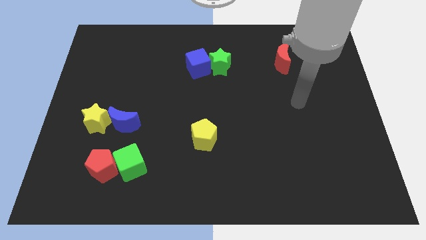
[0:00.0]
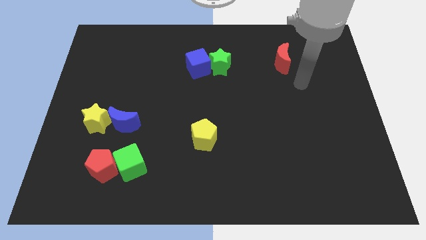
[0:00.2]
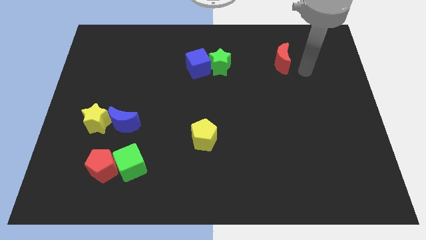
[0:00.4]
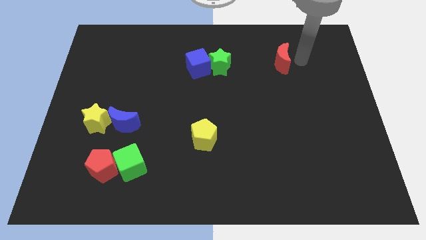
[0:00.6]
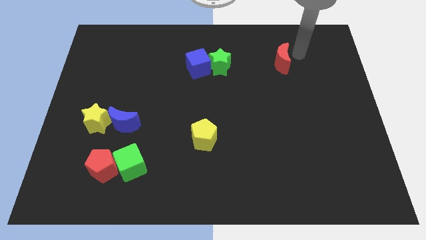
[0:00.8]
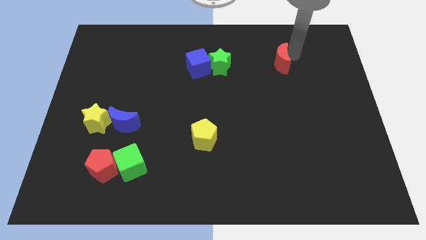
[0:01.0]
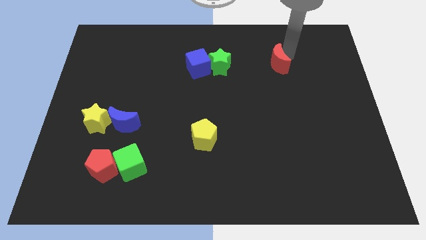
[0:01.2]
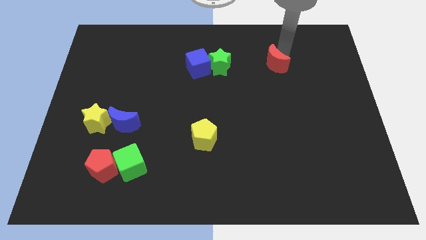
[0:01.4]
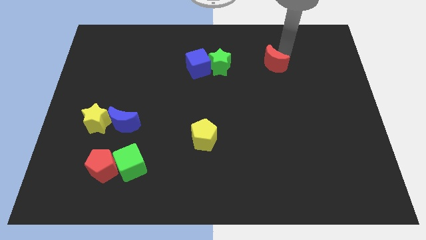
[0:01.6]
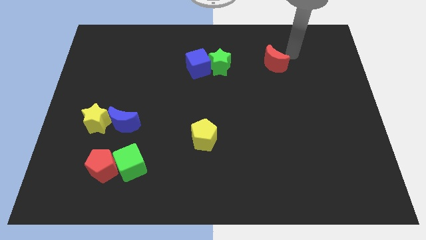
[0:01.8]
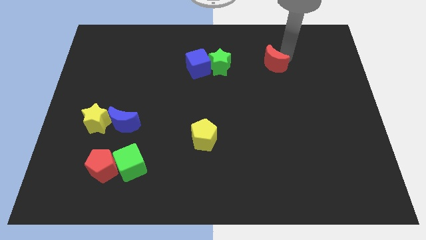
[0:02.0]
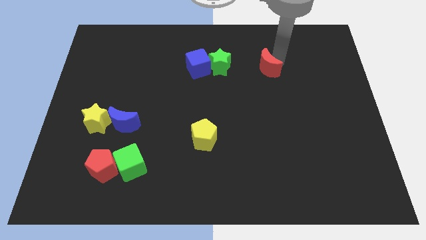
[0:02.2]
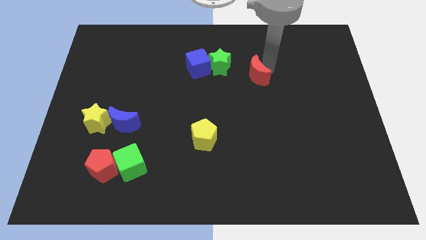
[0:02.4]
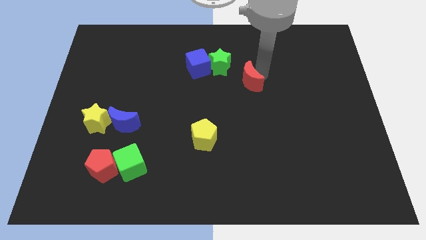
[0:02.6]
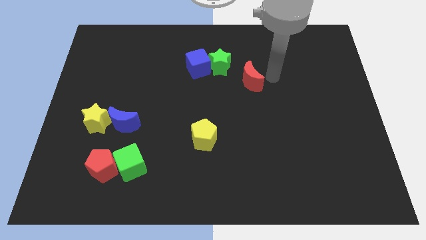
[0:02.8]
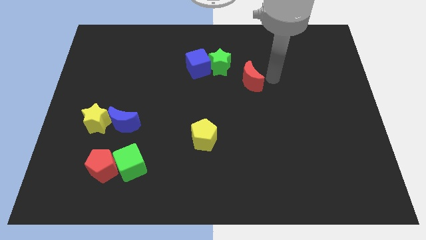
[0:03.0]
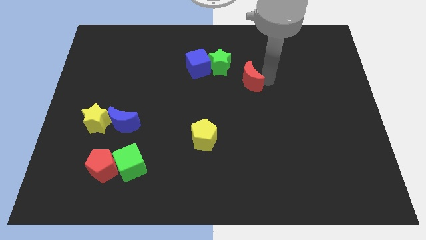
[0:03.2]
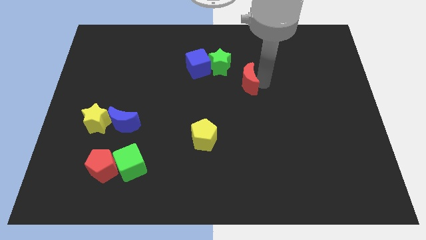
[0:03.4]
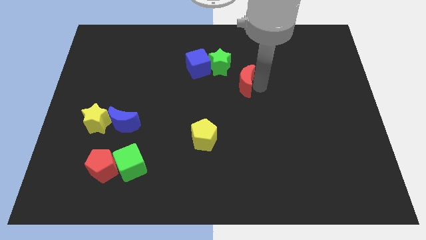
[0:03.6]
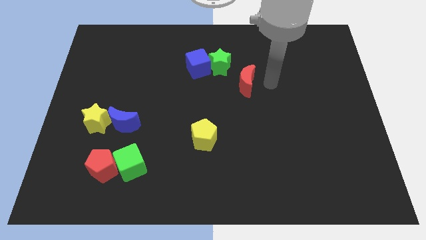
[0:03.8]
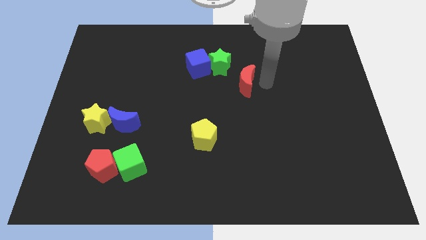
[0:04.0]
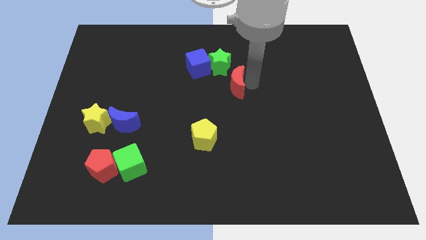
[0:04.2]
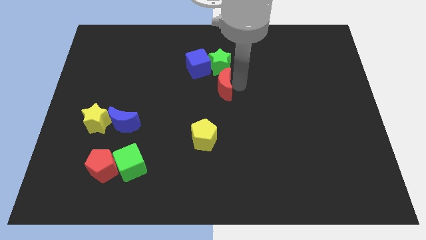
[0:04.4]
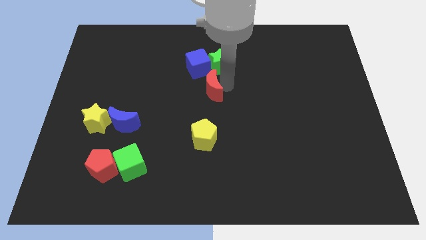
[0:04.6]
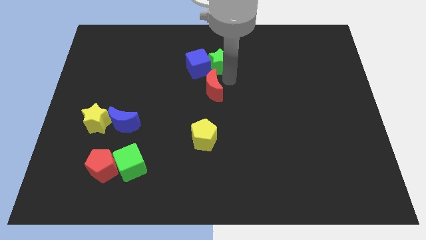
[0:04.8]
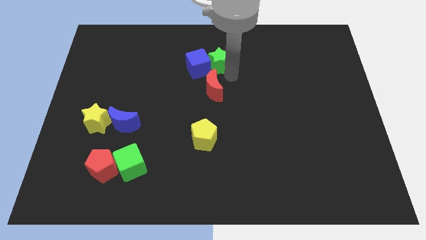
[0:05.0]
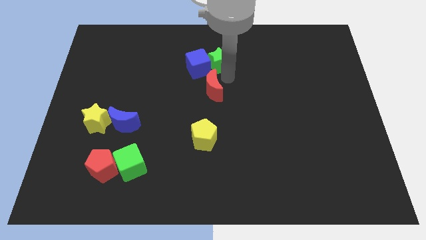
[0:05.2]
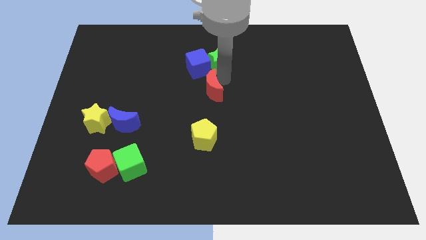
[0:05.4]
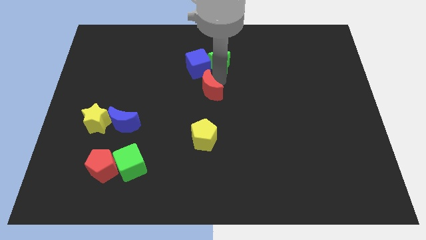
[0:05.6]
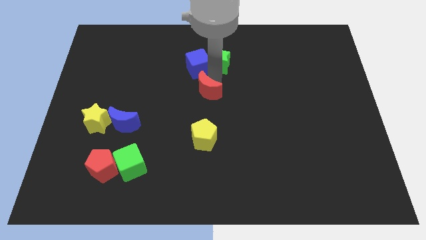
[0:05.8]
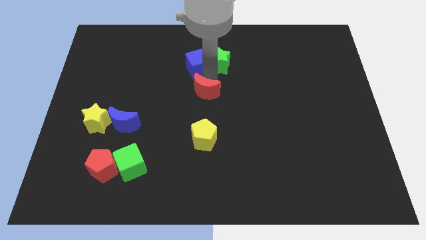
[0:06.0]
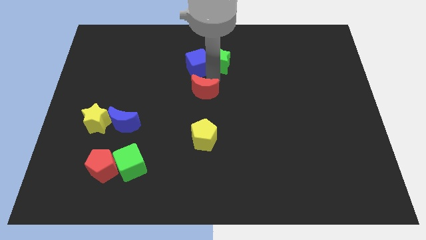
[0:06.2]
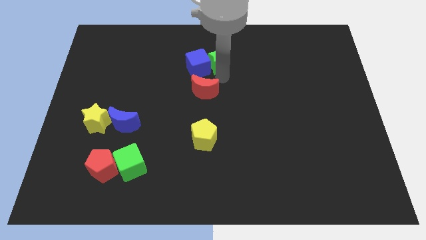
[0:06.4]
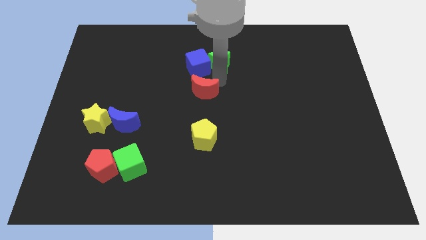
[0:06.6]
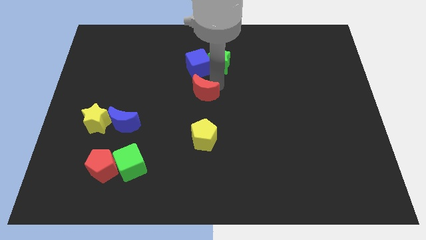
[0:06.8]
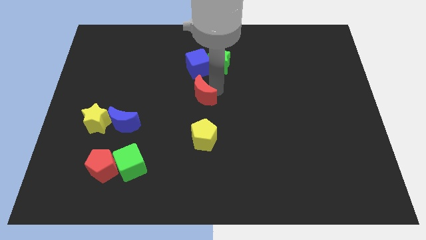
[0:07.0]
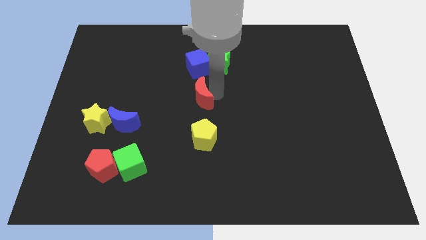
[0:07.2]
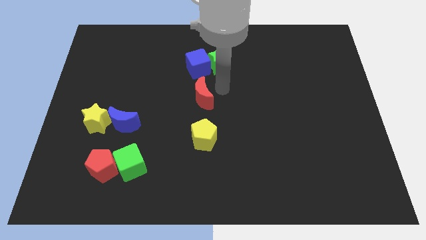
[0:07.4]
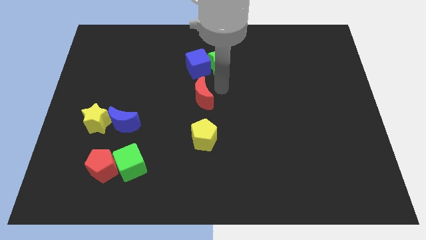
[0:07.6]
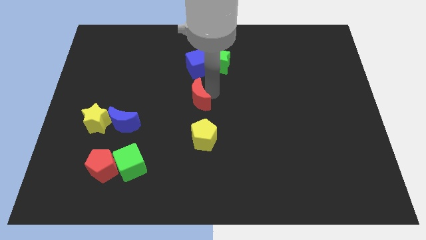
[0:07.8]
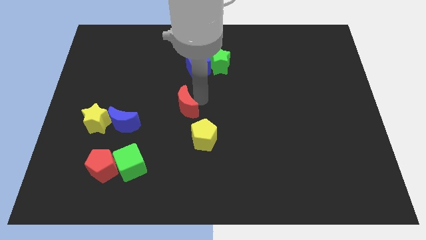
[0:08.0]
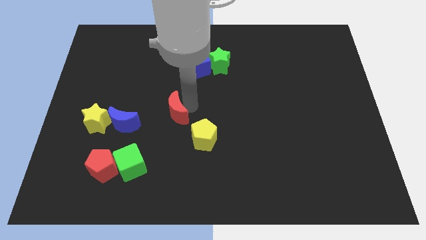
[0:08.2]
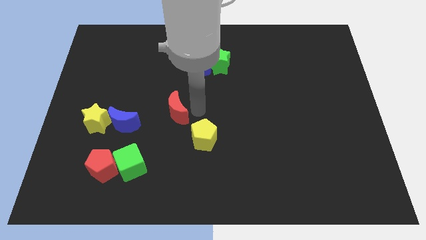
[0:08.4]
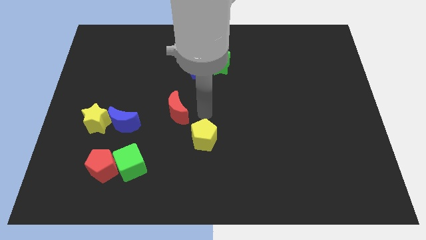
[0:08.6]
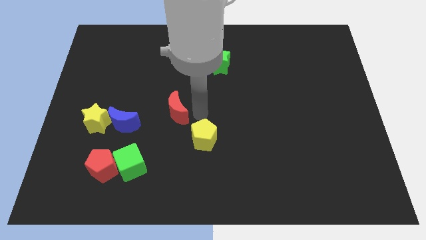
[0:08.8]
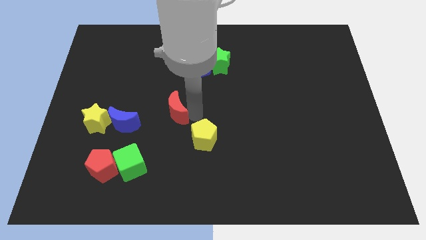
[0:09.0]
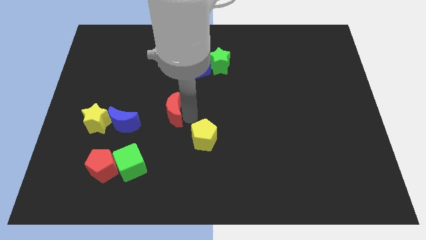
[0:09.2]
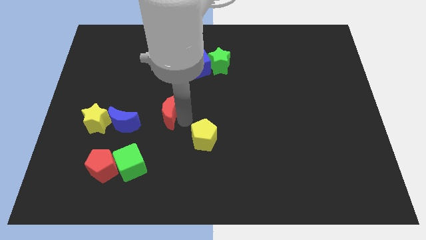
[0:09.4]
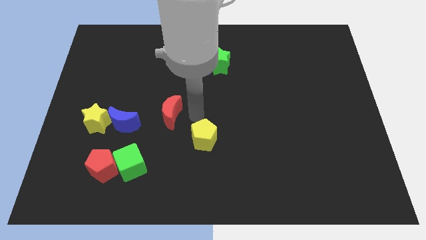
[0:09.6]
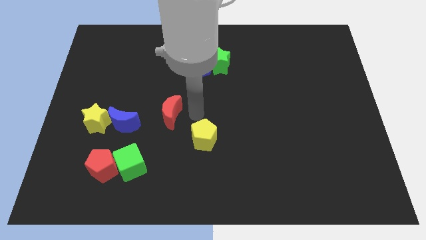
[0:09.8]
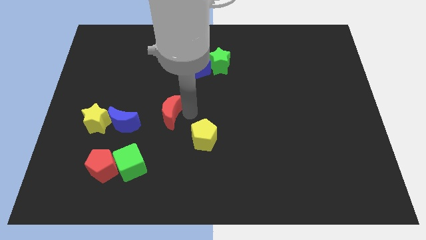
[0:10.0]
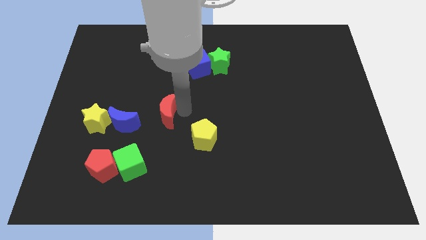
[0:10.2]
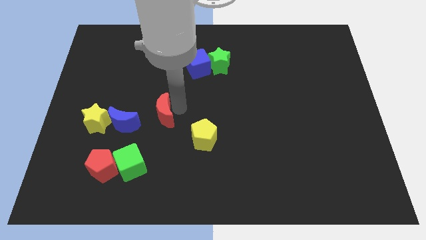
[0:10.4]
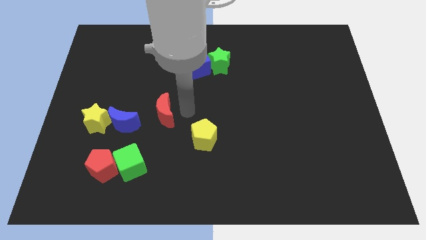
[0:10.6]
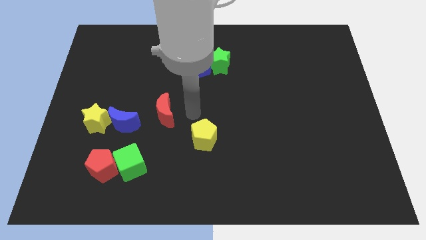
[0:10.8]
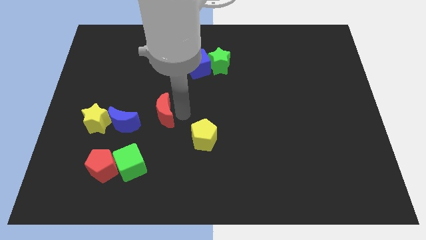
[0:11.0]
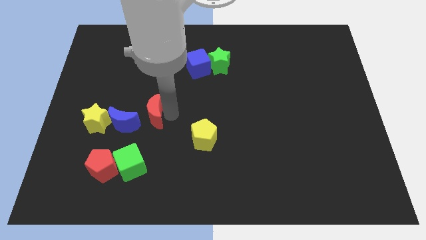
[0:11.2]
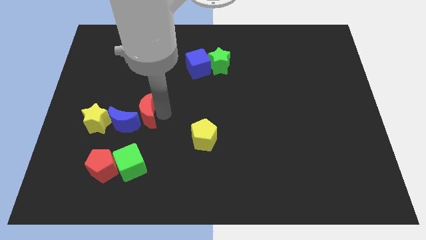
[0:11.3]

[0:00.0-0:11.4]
push the red moon towards the blue moon
